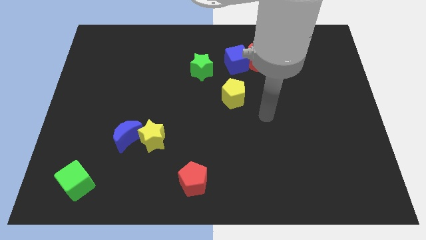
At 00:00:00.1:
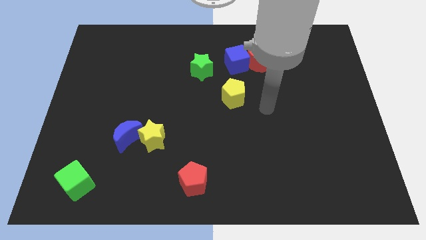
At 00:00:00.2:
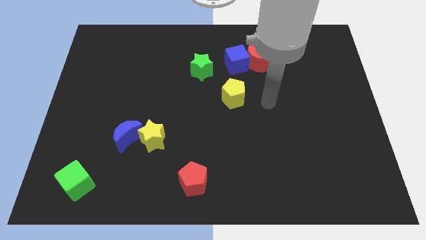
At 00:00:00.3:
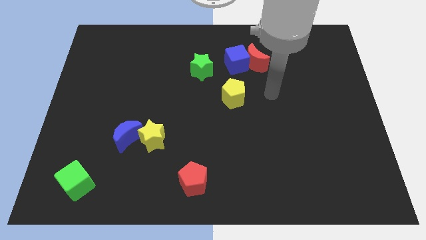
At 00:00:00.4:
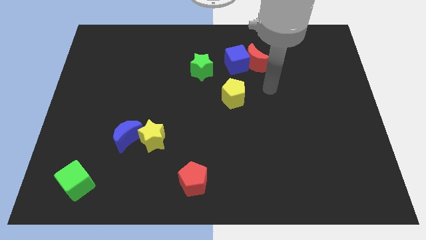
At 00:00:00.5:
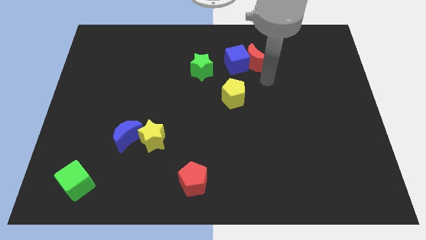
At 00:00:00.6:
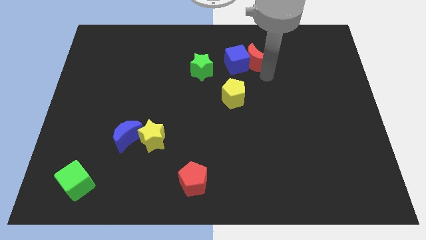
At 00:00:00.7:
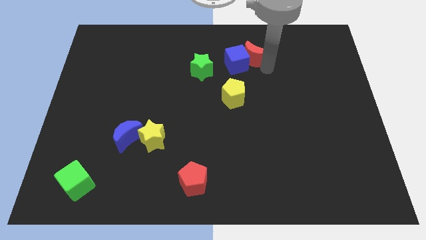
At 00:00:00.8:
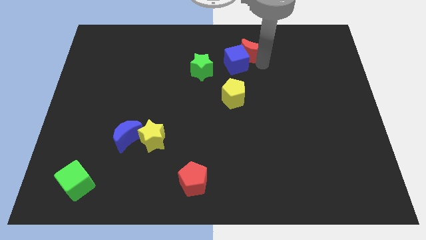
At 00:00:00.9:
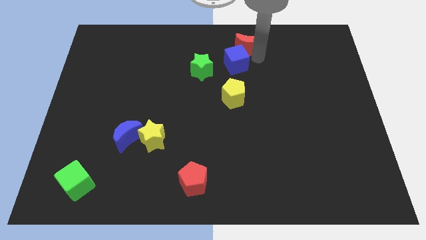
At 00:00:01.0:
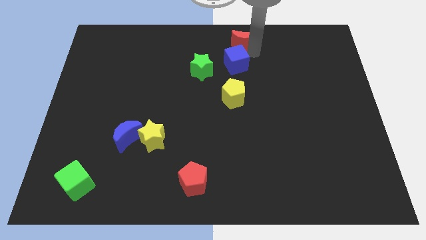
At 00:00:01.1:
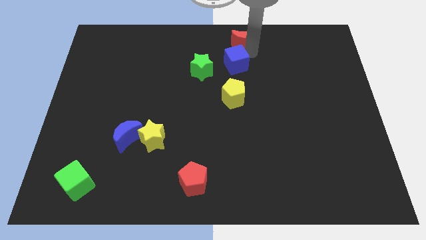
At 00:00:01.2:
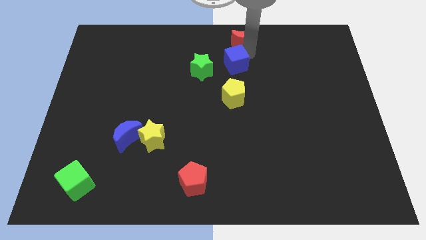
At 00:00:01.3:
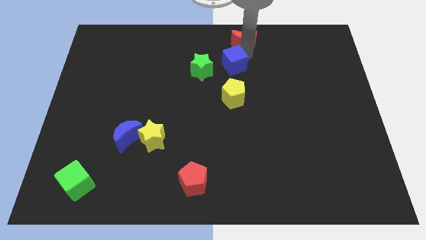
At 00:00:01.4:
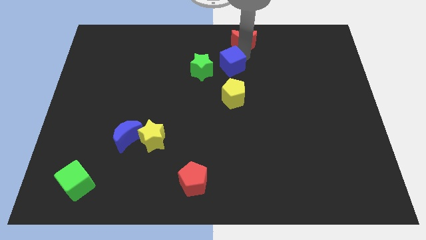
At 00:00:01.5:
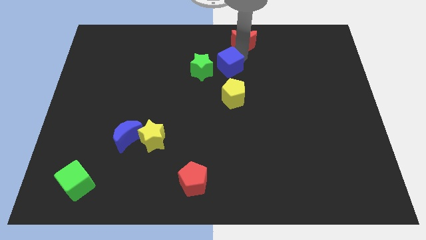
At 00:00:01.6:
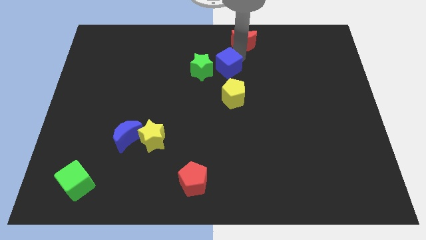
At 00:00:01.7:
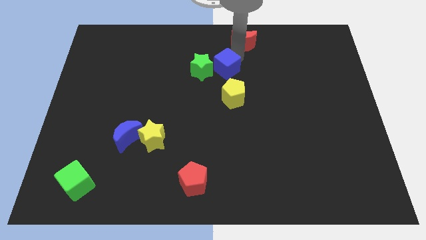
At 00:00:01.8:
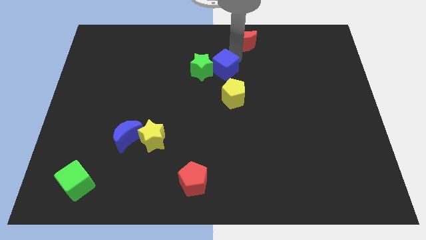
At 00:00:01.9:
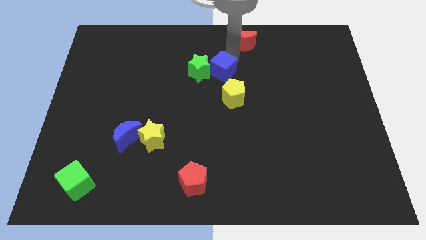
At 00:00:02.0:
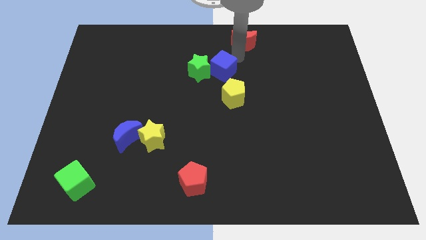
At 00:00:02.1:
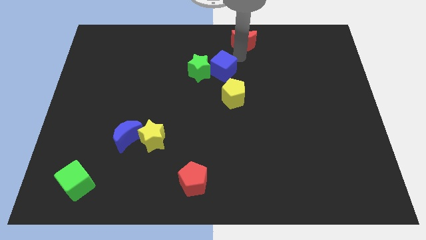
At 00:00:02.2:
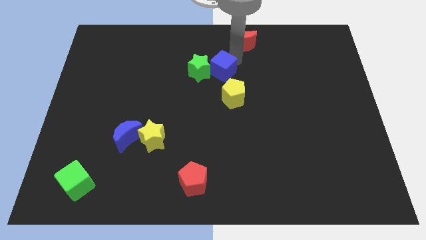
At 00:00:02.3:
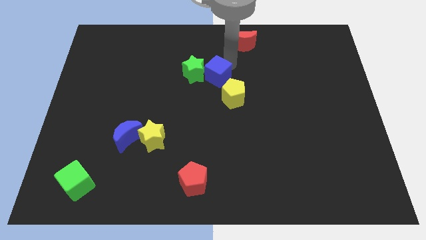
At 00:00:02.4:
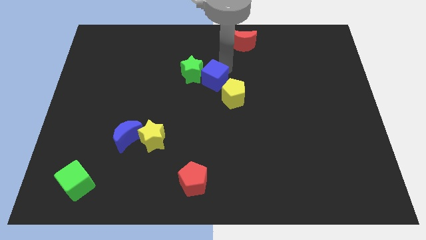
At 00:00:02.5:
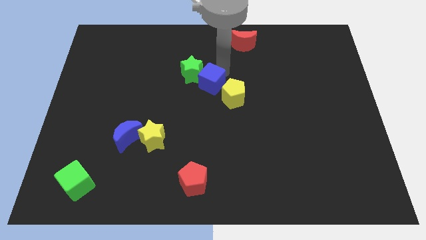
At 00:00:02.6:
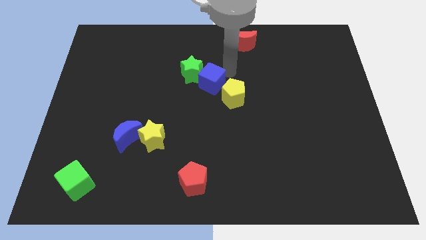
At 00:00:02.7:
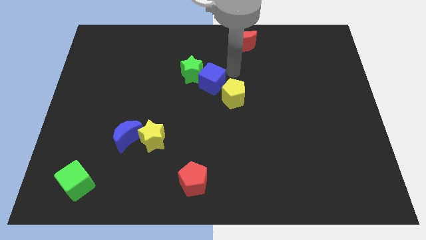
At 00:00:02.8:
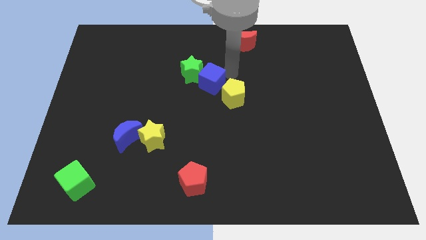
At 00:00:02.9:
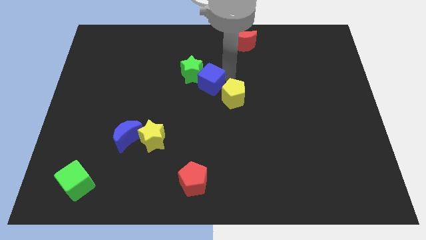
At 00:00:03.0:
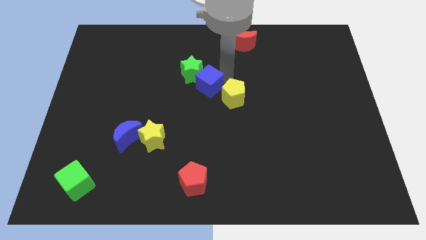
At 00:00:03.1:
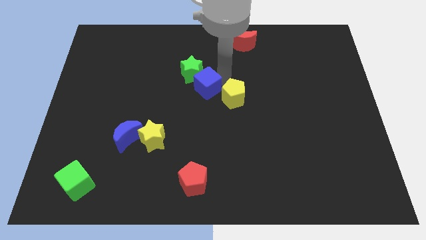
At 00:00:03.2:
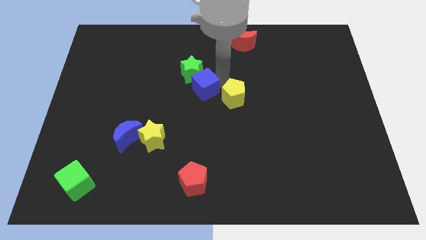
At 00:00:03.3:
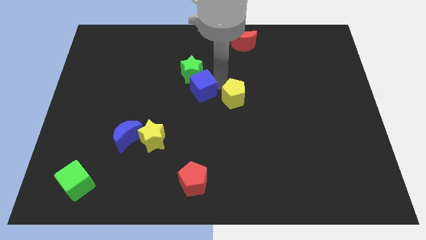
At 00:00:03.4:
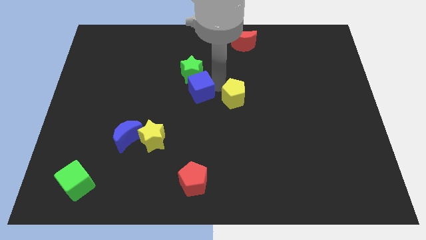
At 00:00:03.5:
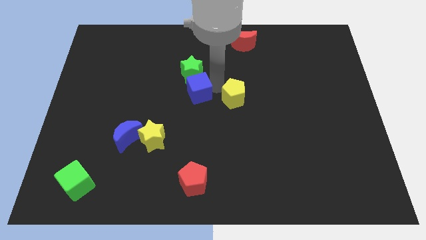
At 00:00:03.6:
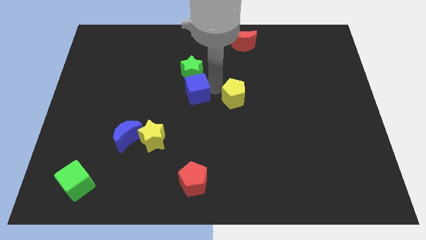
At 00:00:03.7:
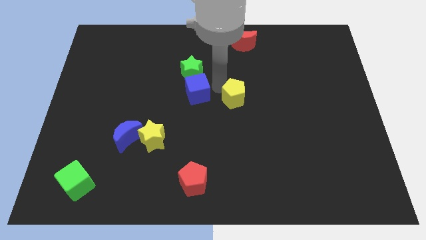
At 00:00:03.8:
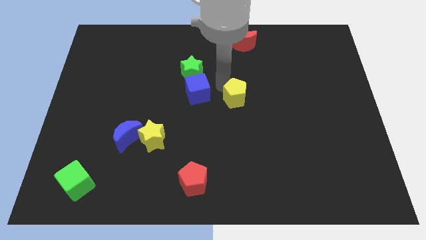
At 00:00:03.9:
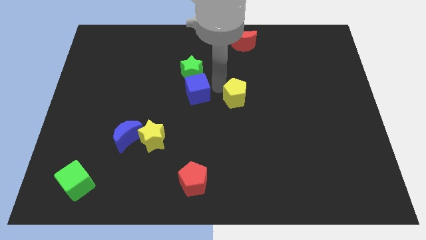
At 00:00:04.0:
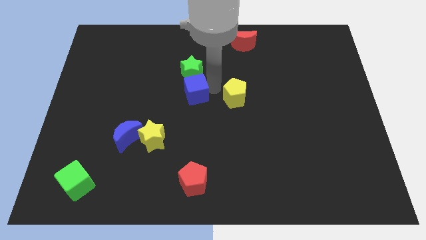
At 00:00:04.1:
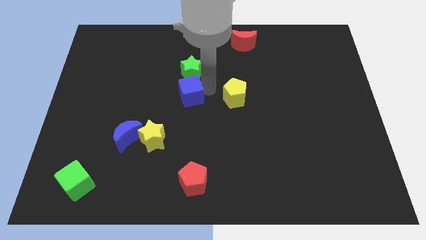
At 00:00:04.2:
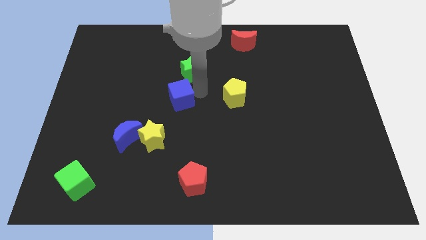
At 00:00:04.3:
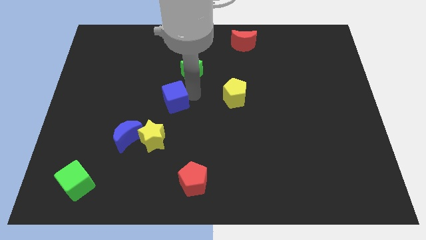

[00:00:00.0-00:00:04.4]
push the blue cube to the top of the yellow star

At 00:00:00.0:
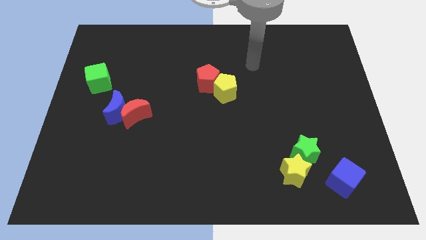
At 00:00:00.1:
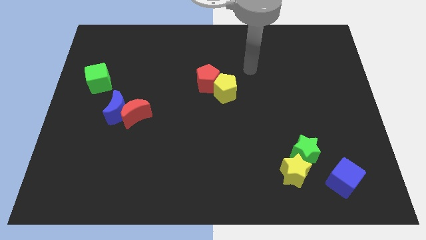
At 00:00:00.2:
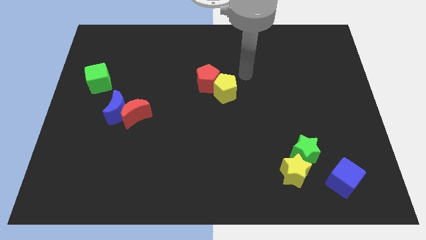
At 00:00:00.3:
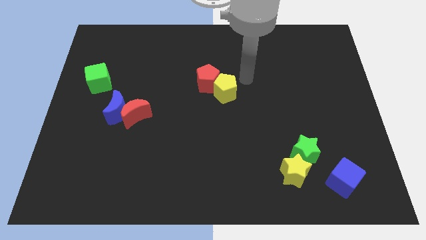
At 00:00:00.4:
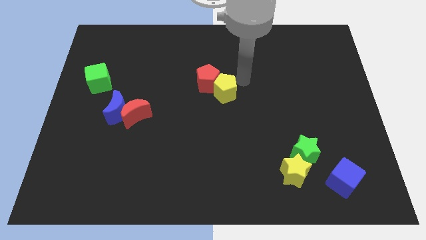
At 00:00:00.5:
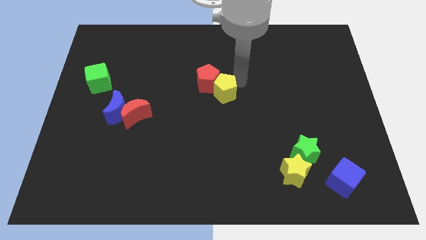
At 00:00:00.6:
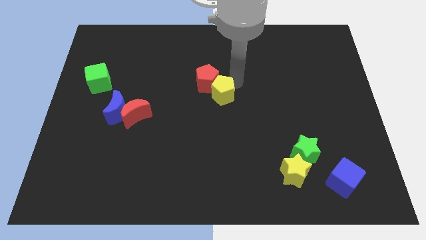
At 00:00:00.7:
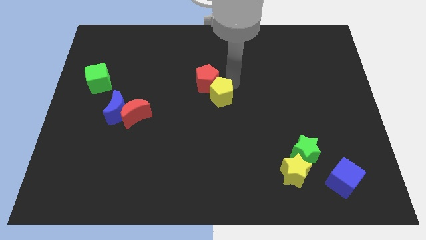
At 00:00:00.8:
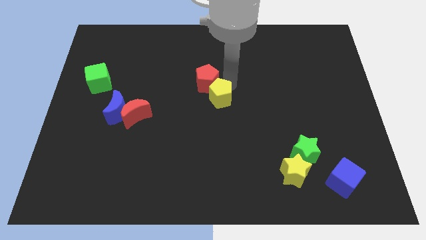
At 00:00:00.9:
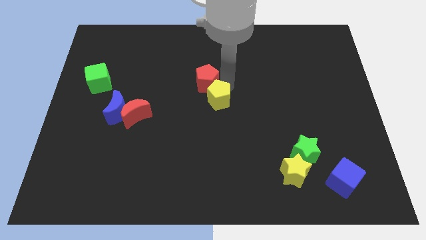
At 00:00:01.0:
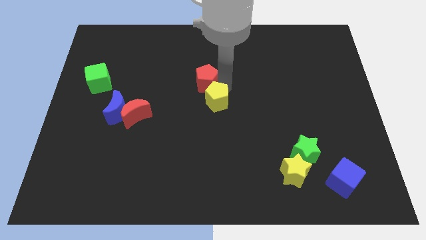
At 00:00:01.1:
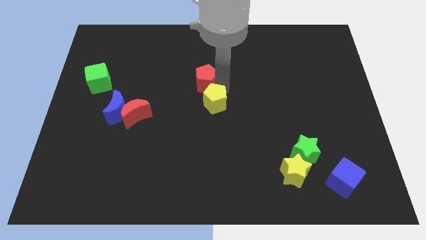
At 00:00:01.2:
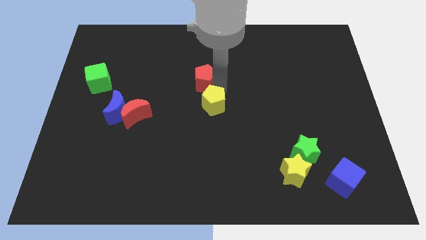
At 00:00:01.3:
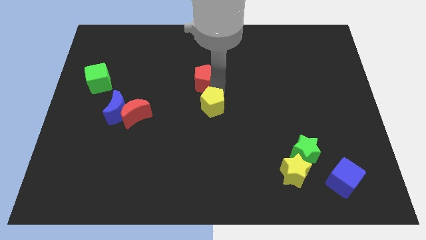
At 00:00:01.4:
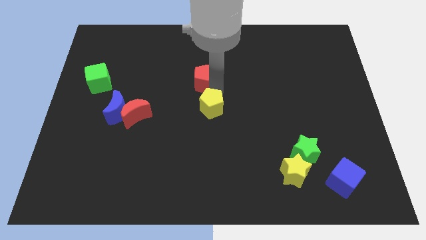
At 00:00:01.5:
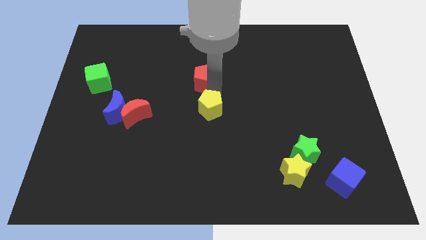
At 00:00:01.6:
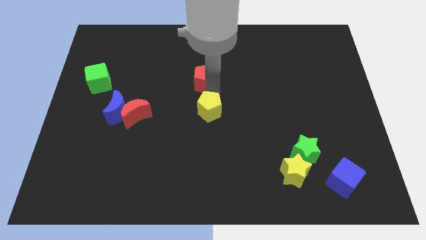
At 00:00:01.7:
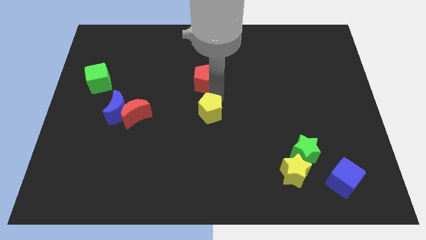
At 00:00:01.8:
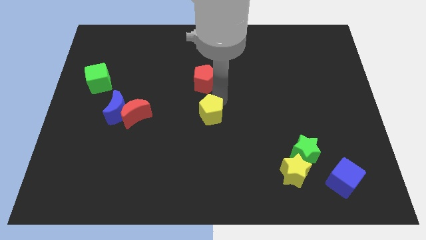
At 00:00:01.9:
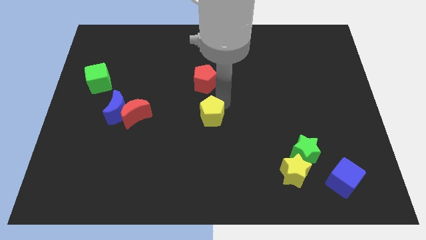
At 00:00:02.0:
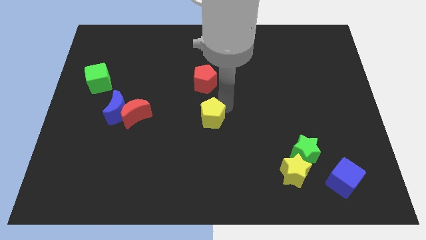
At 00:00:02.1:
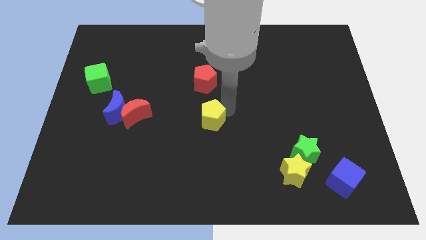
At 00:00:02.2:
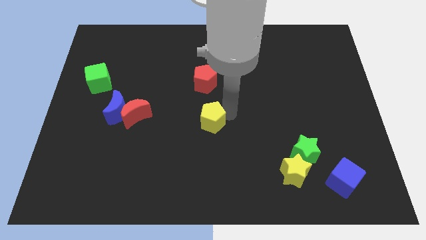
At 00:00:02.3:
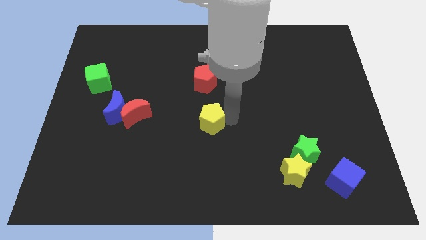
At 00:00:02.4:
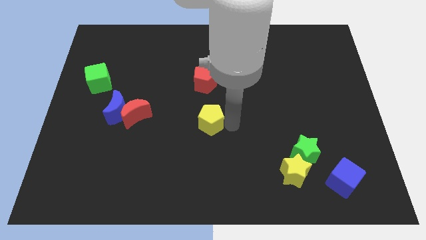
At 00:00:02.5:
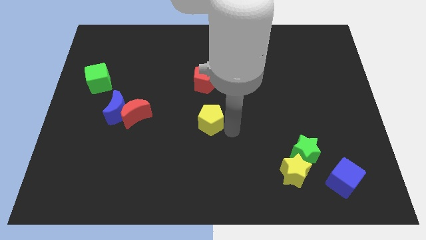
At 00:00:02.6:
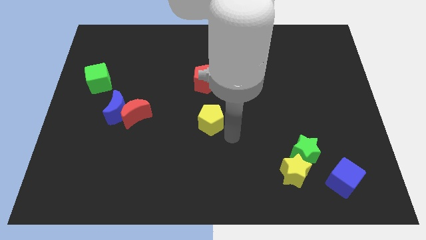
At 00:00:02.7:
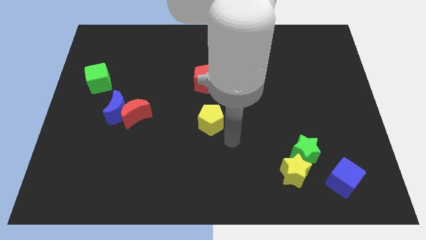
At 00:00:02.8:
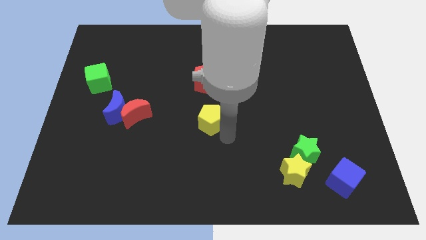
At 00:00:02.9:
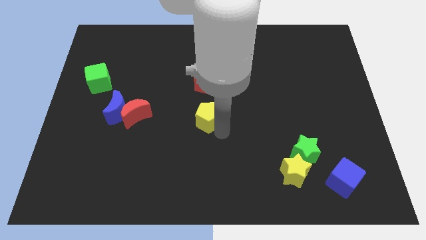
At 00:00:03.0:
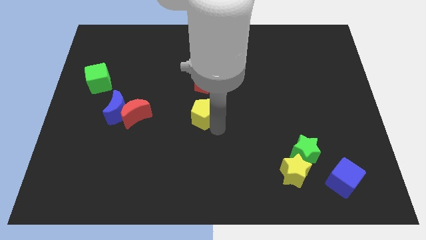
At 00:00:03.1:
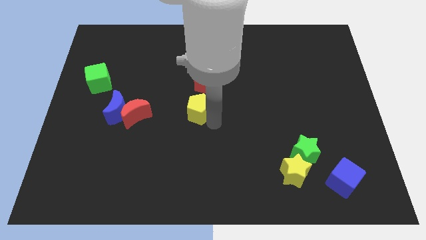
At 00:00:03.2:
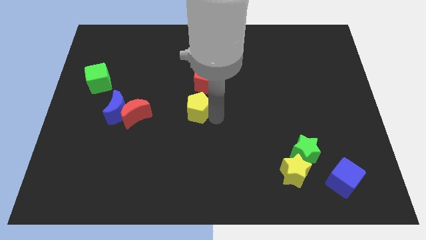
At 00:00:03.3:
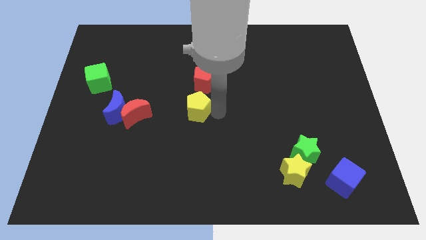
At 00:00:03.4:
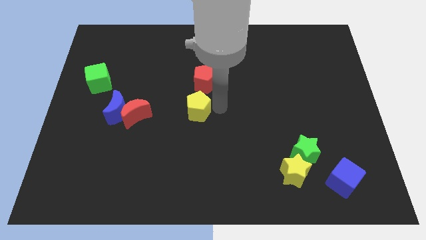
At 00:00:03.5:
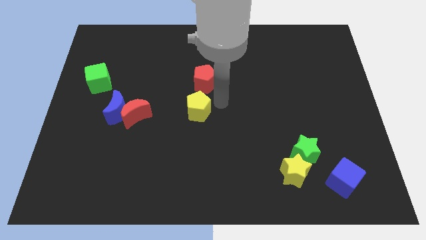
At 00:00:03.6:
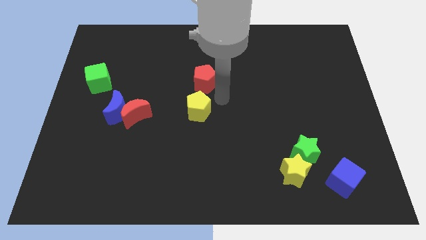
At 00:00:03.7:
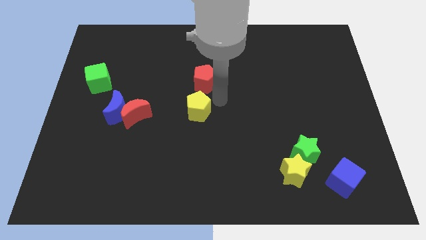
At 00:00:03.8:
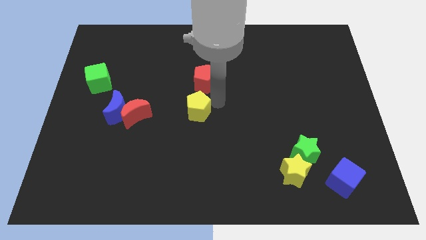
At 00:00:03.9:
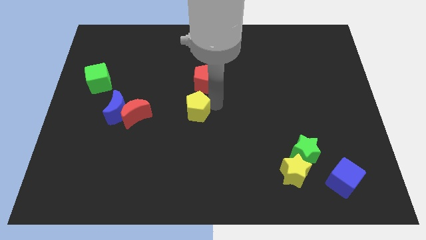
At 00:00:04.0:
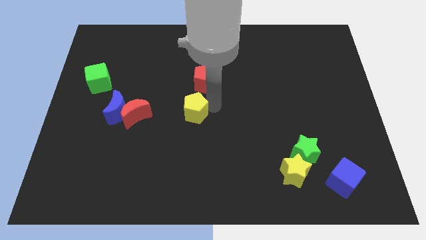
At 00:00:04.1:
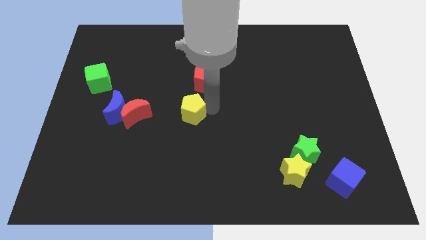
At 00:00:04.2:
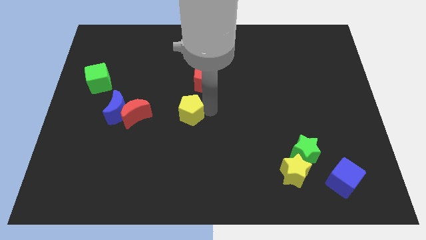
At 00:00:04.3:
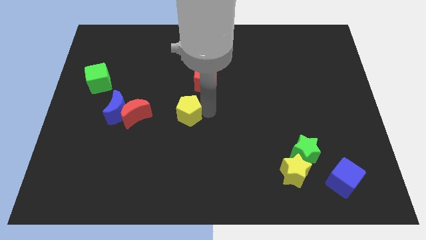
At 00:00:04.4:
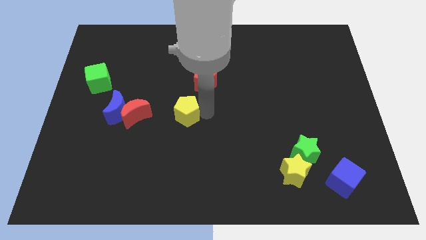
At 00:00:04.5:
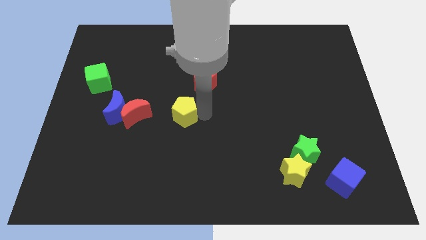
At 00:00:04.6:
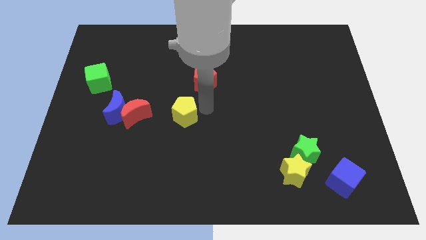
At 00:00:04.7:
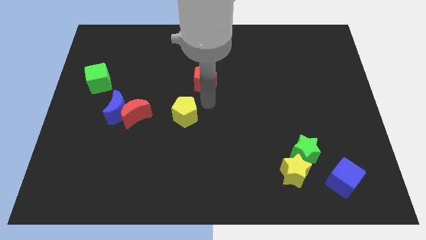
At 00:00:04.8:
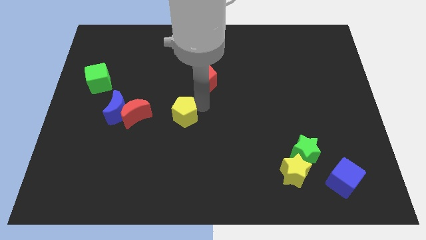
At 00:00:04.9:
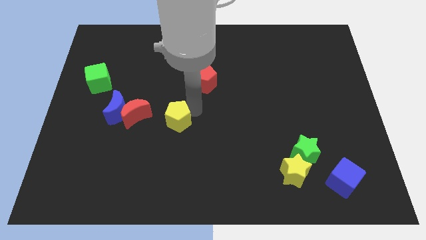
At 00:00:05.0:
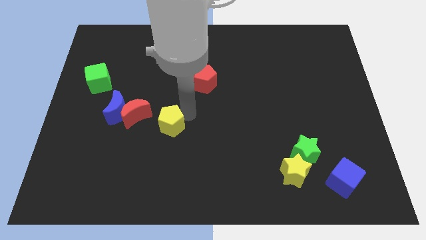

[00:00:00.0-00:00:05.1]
slide the yellow pentagon to the bottom right side of the red moon
